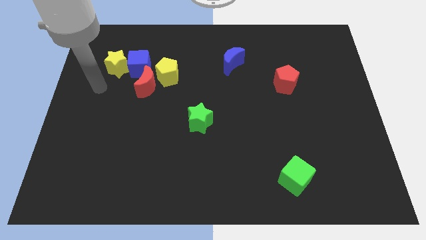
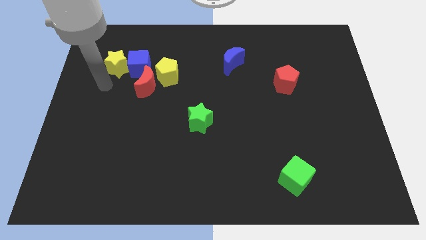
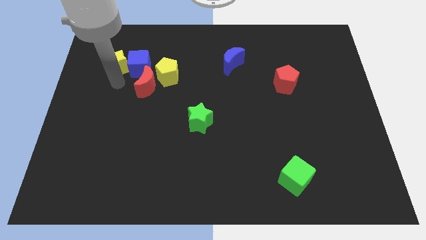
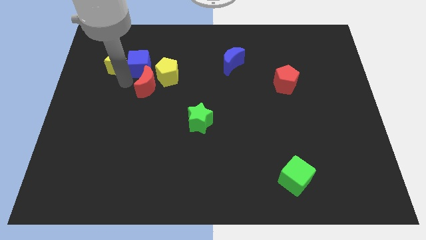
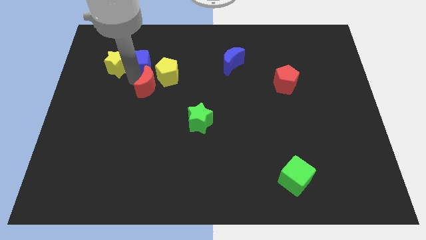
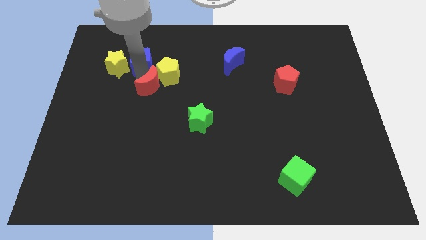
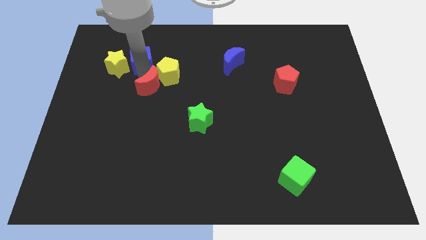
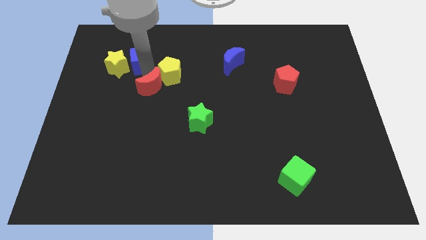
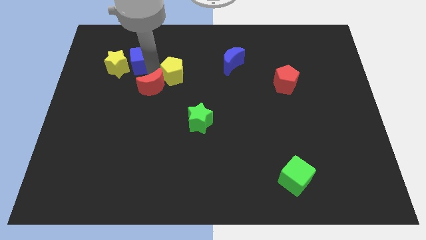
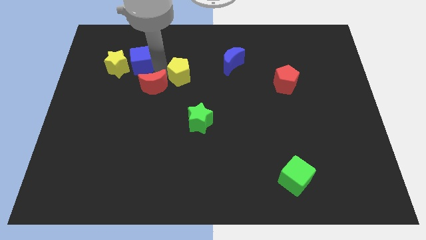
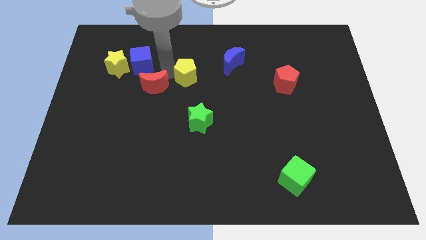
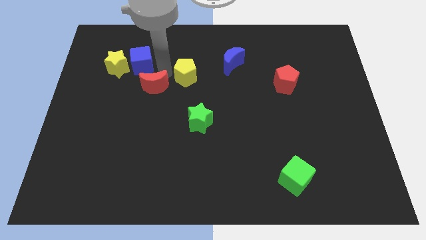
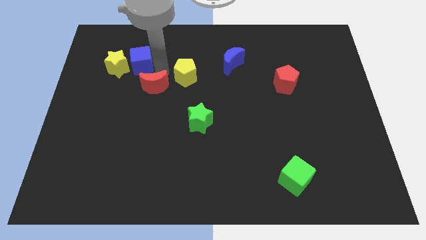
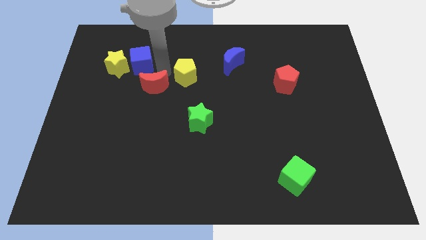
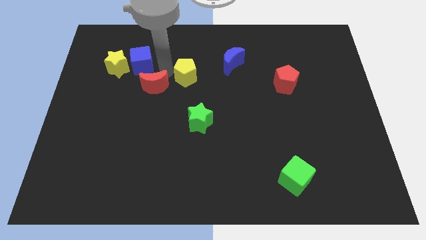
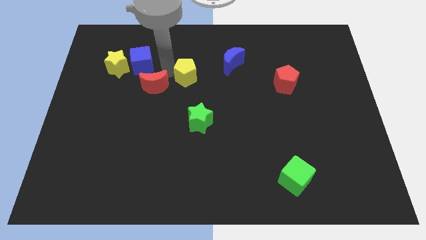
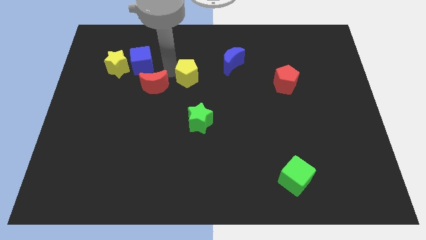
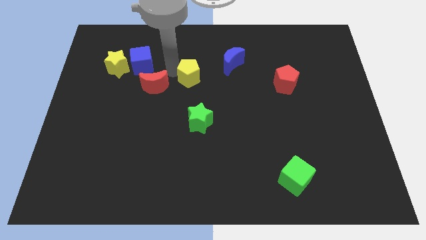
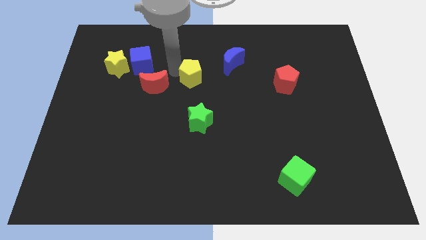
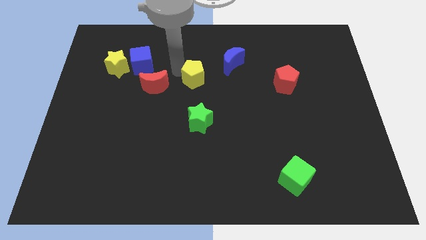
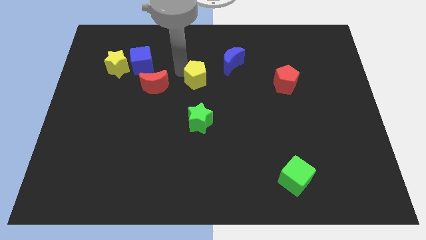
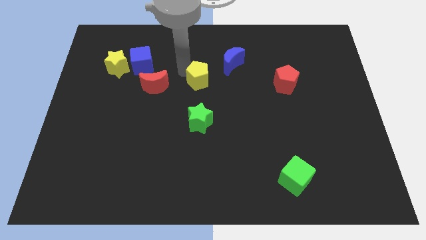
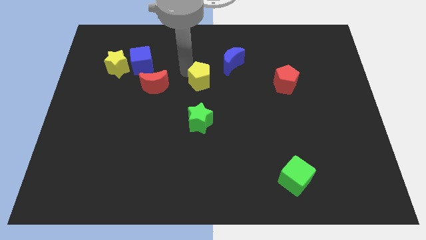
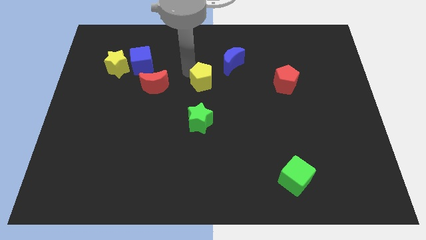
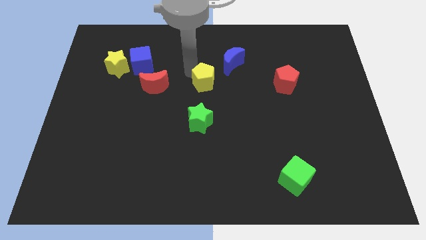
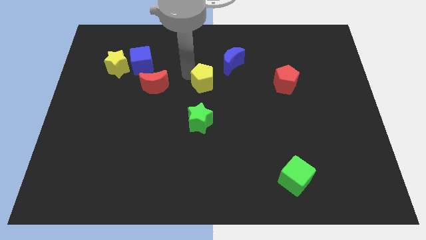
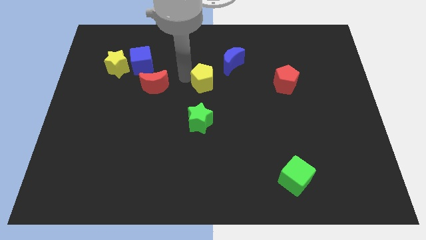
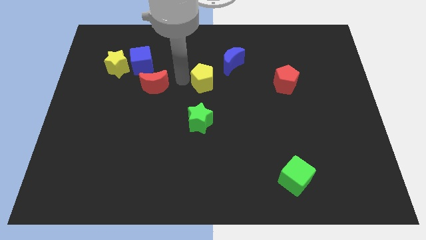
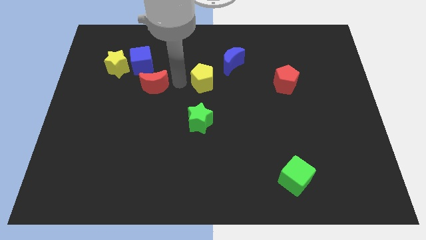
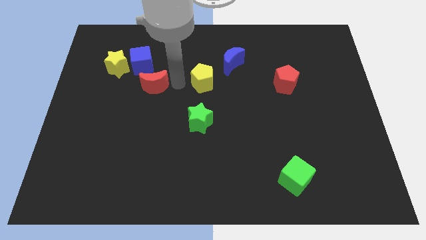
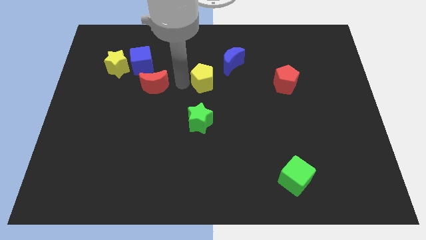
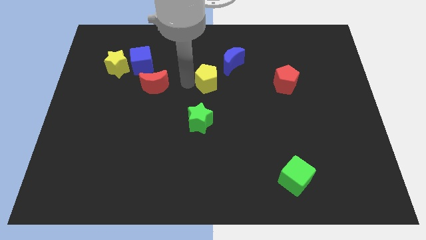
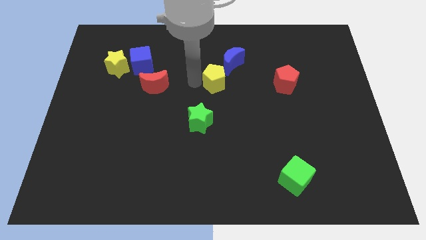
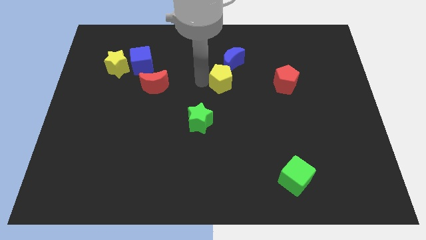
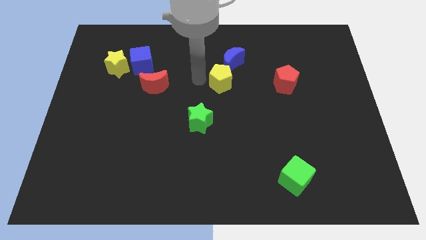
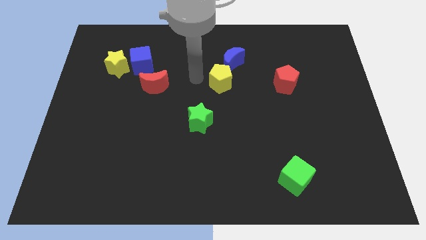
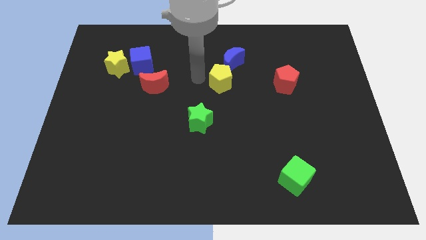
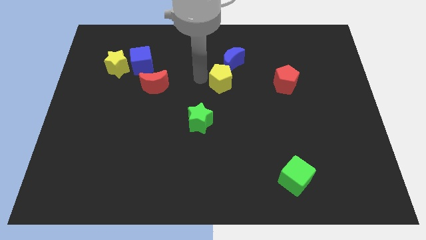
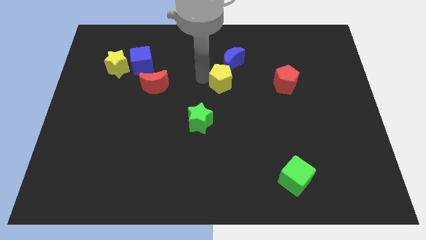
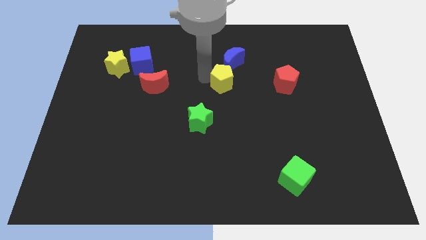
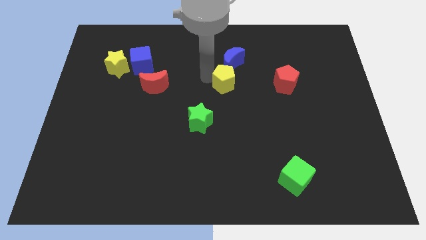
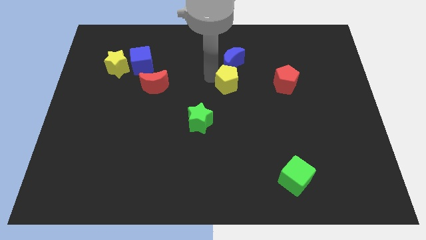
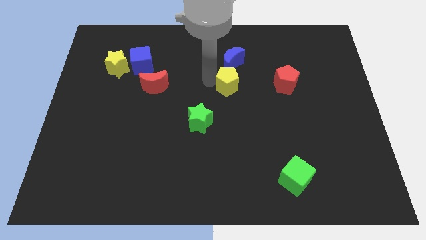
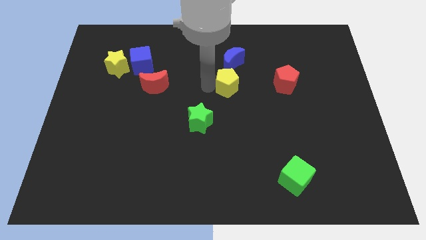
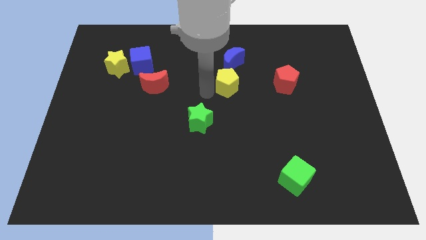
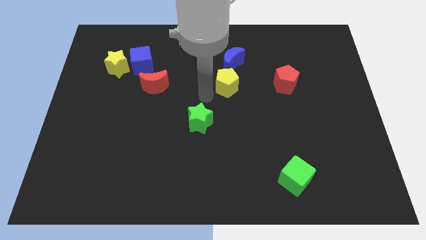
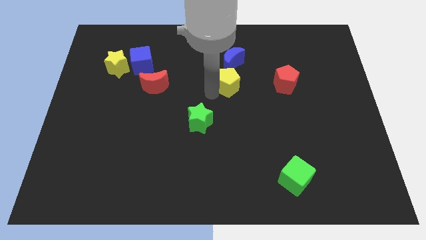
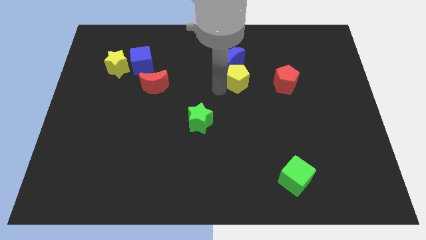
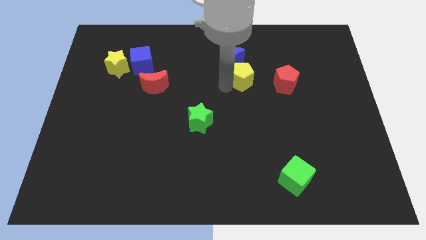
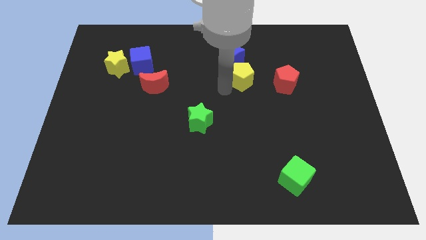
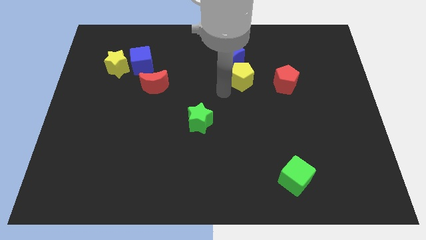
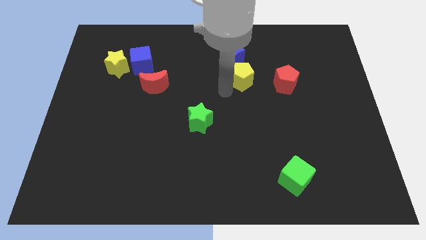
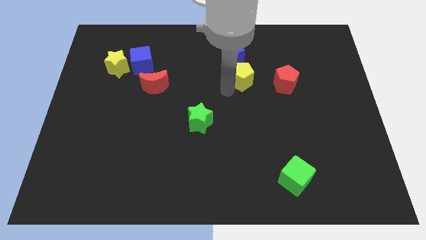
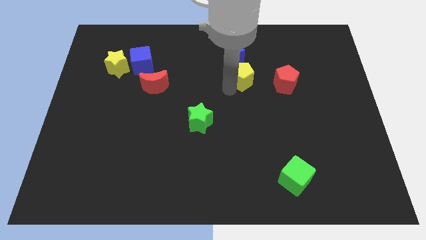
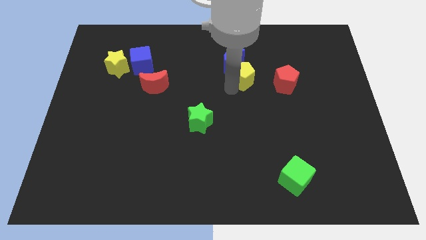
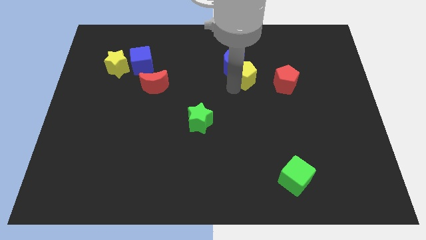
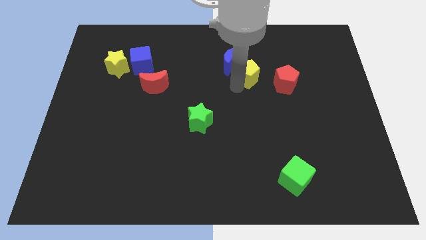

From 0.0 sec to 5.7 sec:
move the yellow pentagon just right of the blue moon

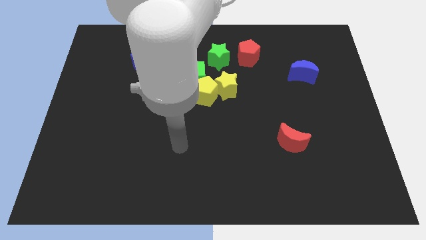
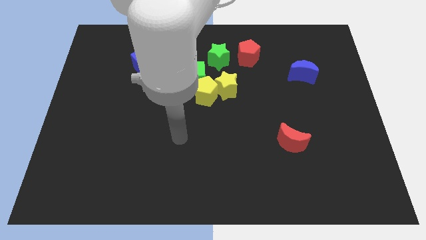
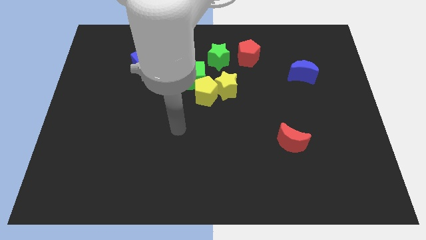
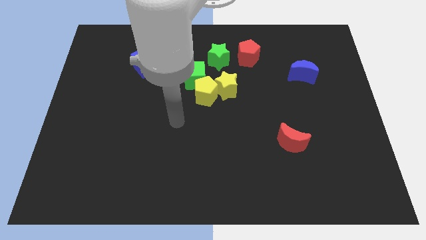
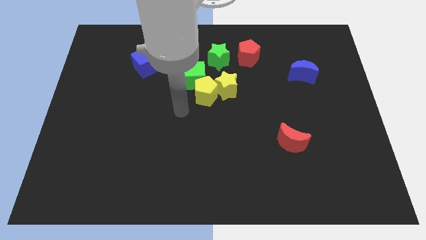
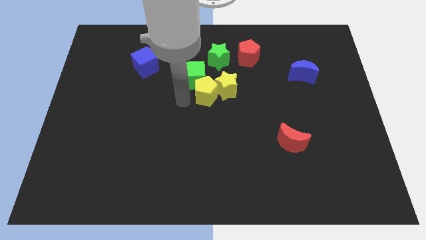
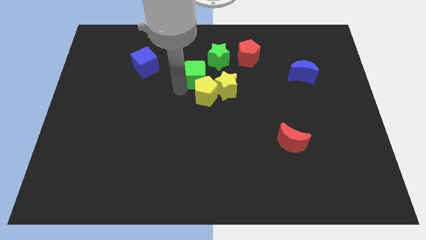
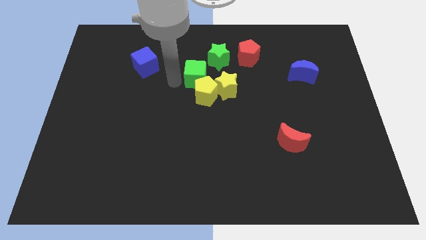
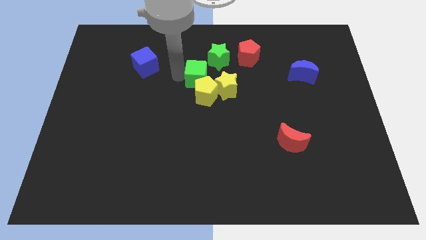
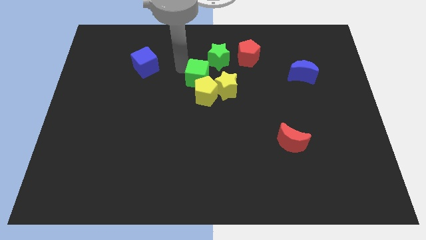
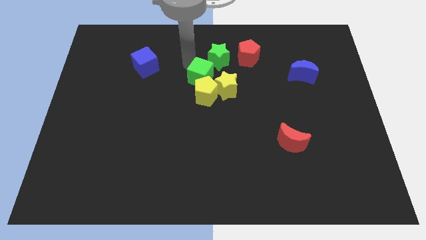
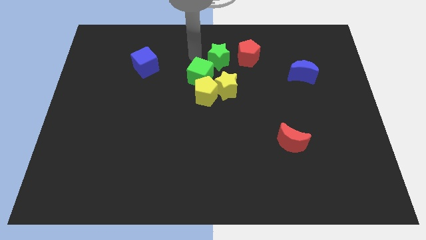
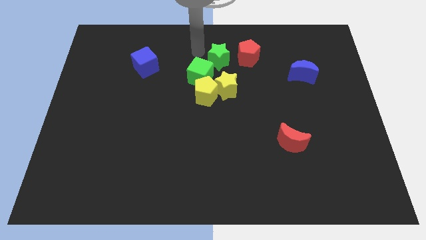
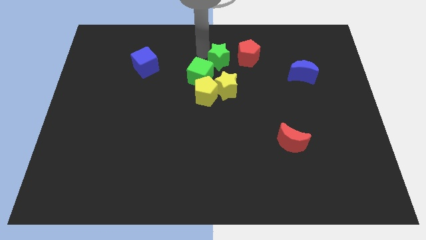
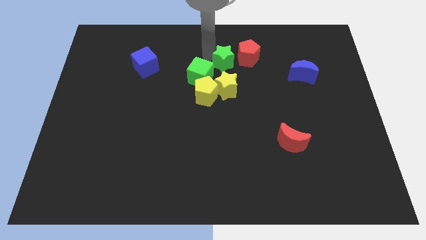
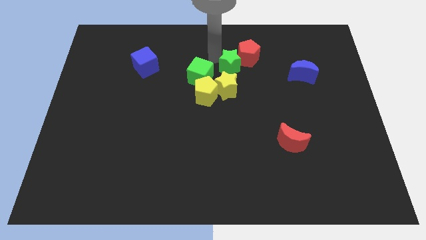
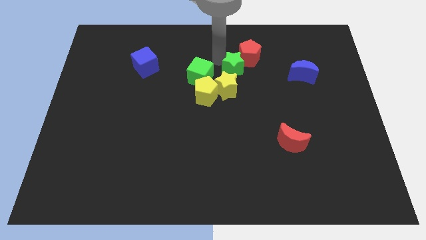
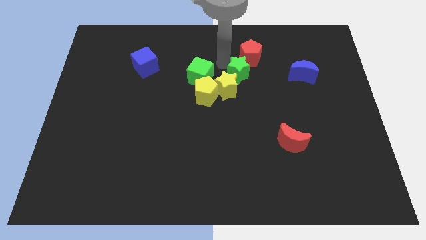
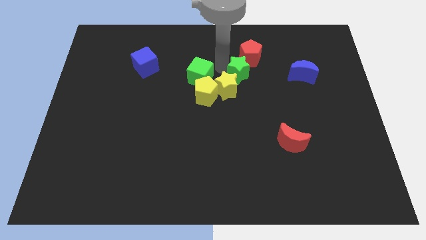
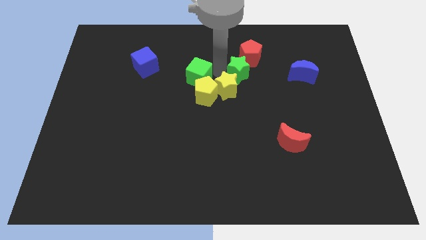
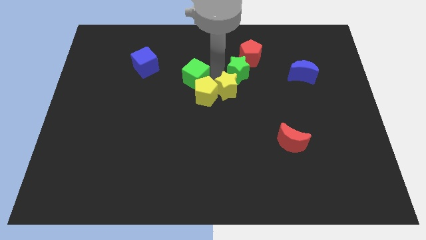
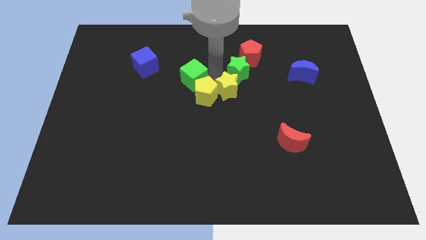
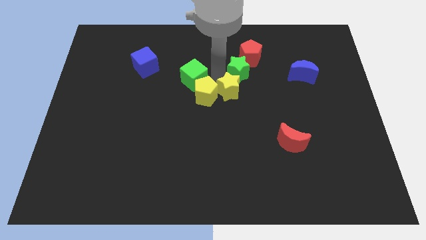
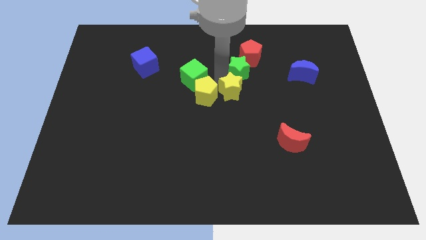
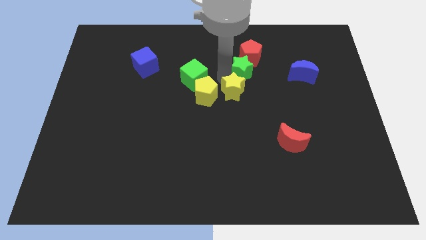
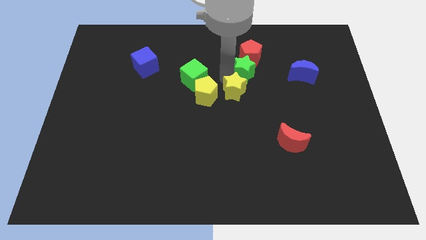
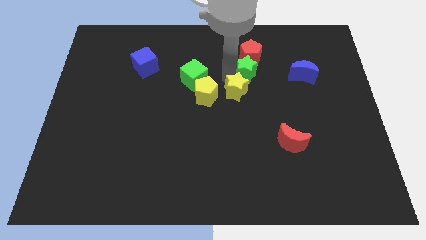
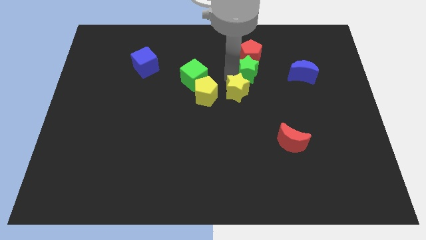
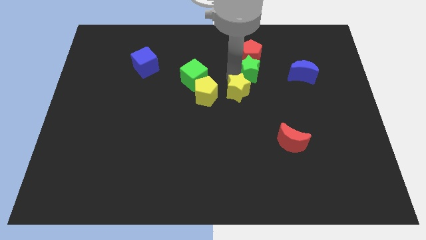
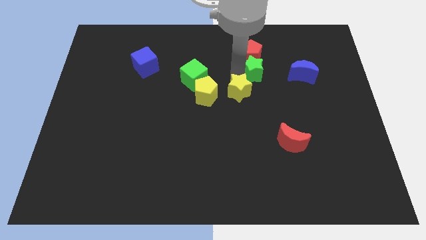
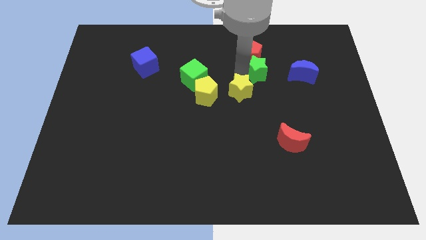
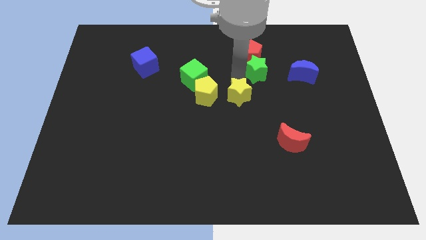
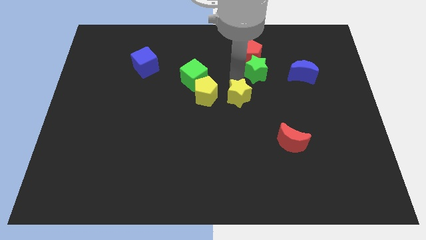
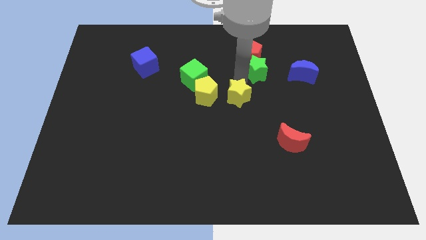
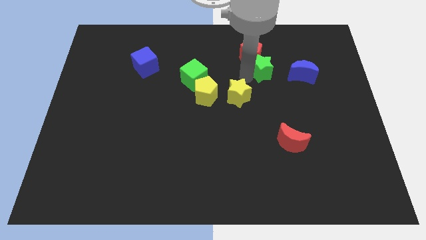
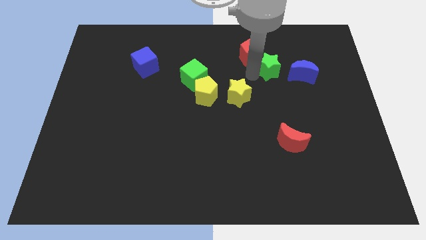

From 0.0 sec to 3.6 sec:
put the green star diagonally up and to the left of the blue moon
